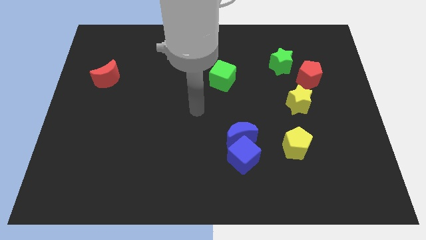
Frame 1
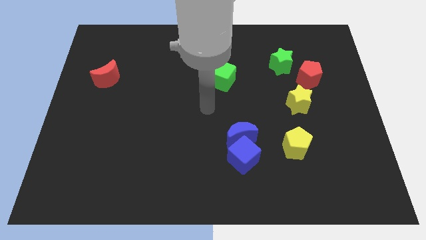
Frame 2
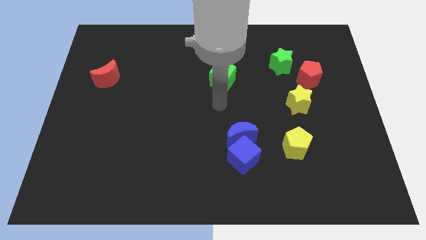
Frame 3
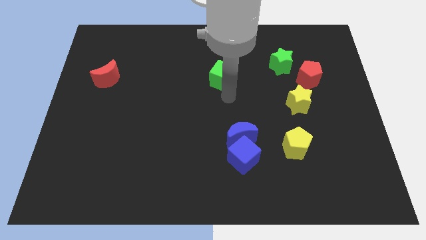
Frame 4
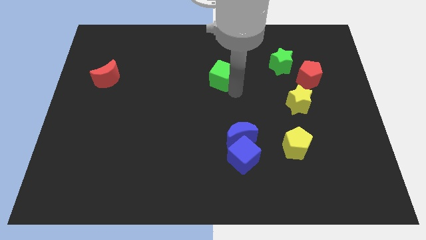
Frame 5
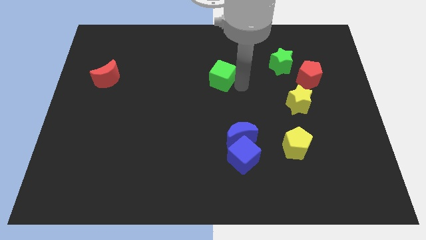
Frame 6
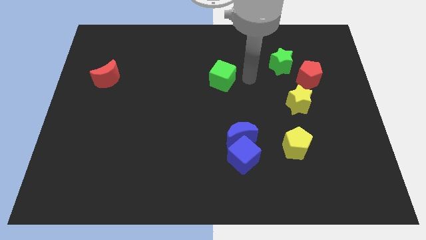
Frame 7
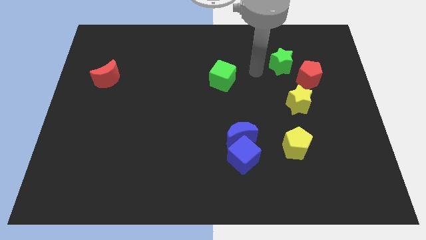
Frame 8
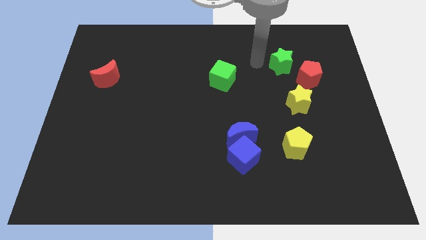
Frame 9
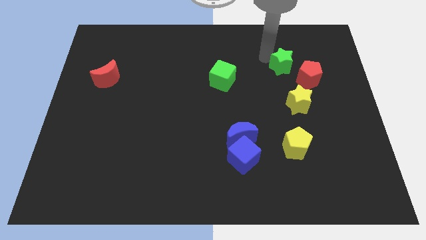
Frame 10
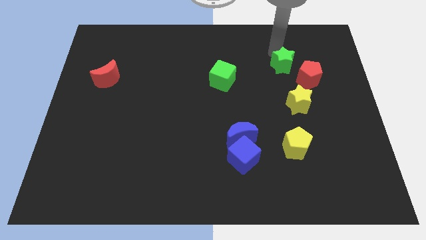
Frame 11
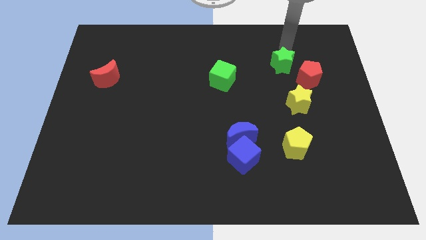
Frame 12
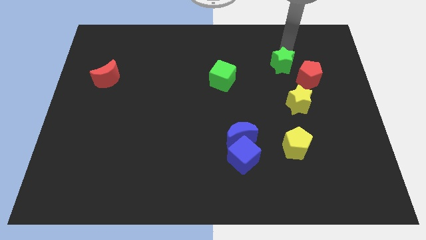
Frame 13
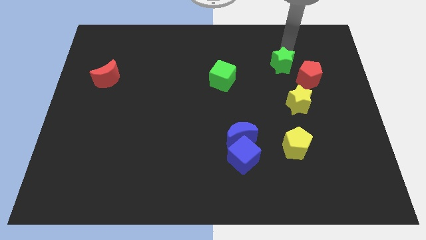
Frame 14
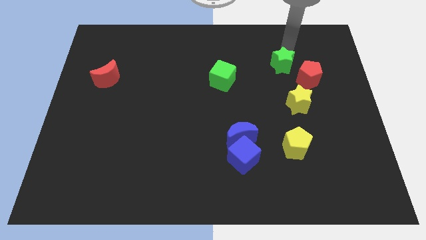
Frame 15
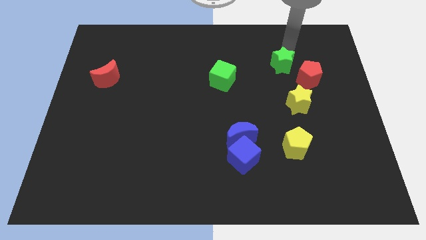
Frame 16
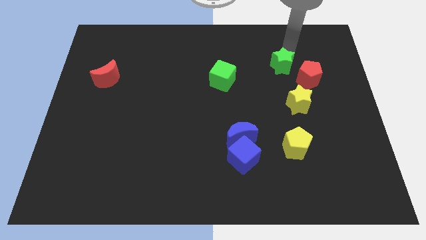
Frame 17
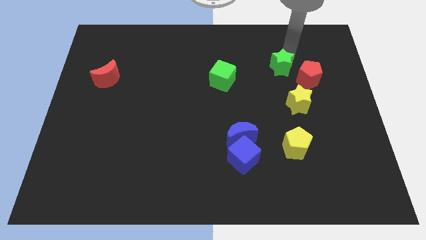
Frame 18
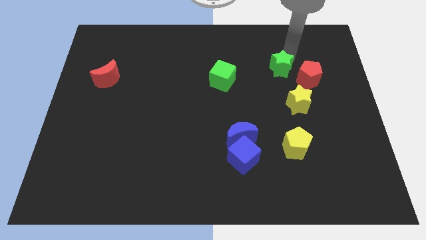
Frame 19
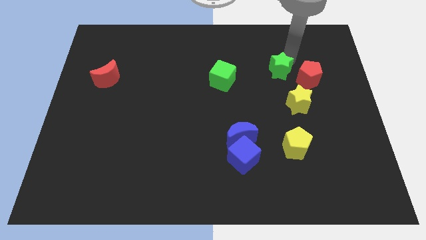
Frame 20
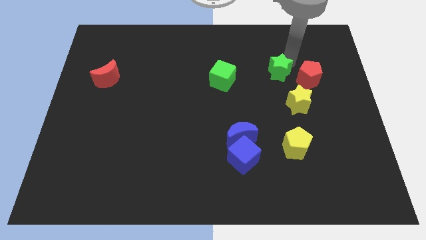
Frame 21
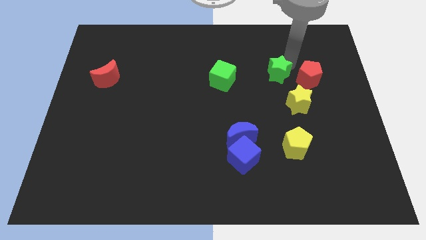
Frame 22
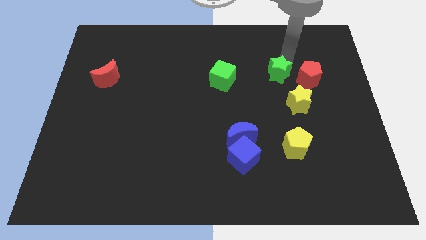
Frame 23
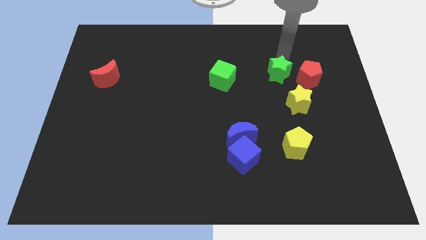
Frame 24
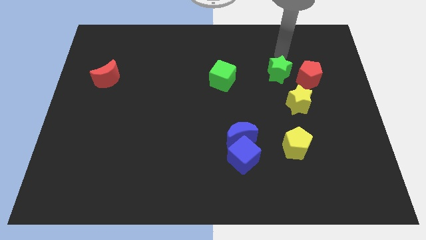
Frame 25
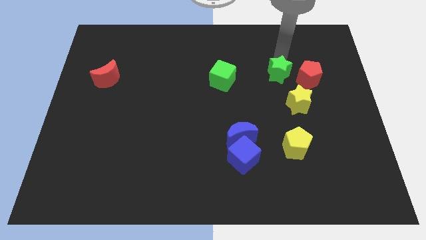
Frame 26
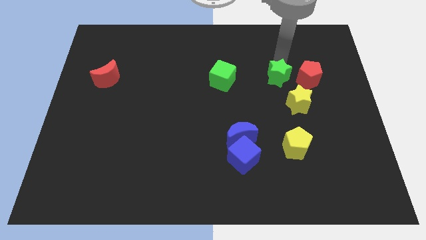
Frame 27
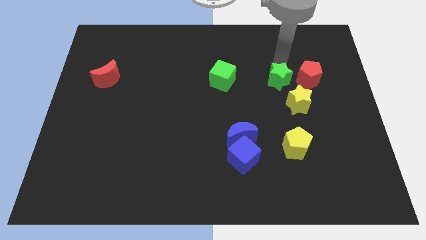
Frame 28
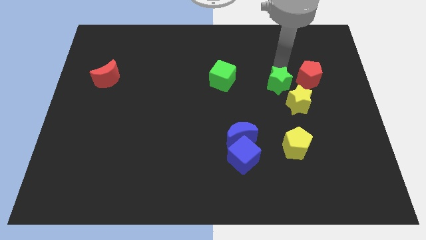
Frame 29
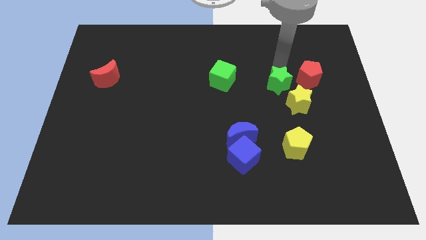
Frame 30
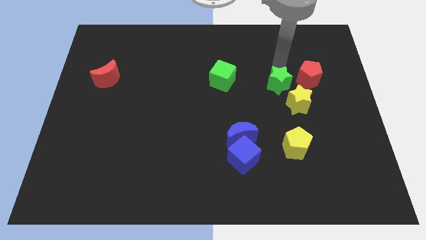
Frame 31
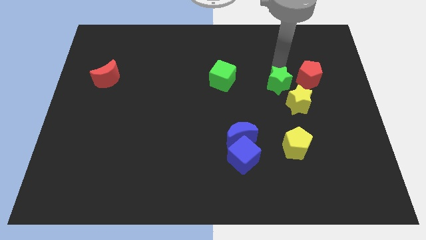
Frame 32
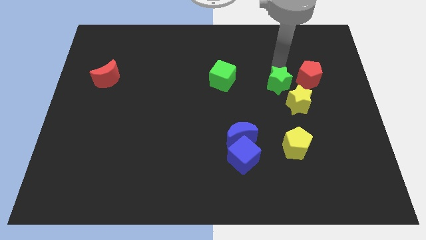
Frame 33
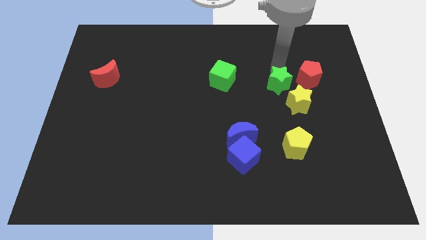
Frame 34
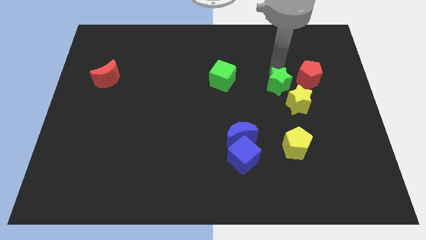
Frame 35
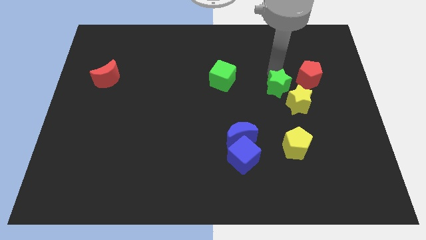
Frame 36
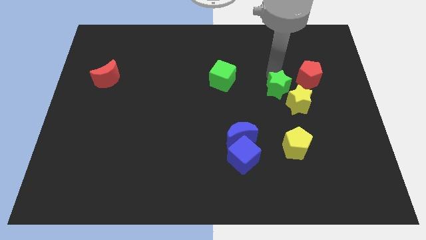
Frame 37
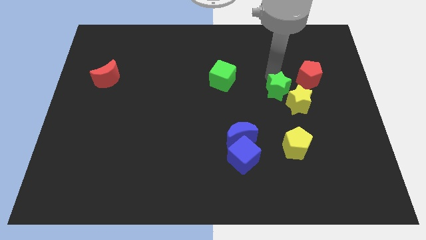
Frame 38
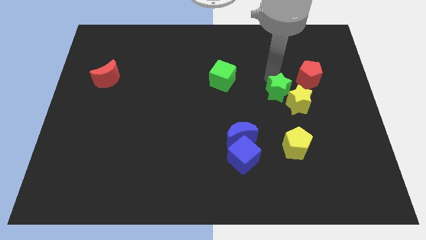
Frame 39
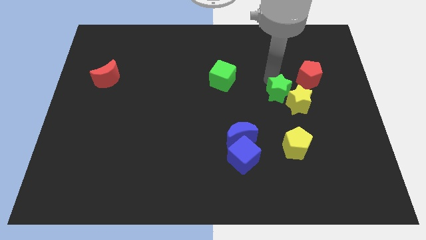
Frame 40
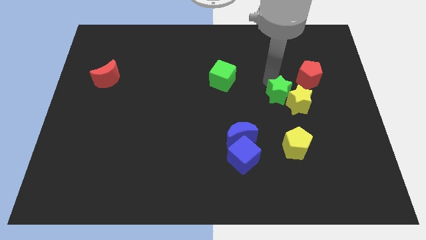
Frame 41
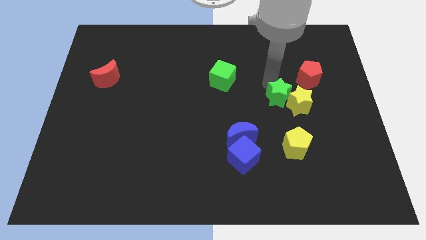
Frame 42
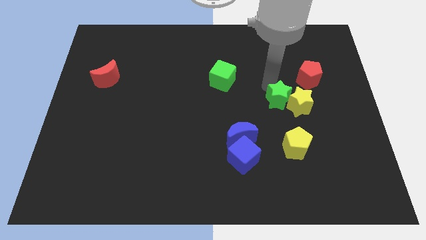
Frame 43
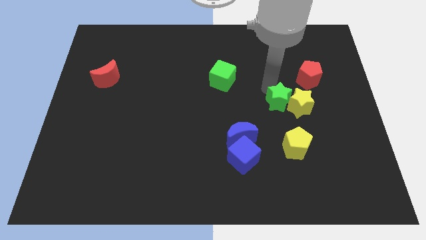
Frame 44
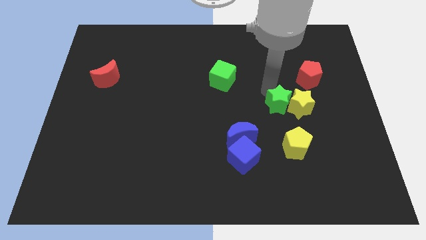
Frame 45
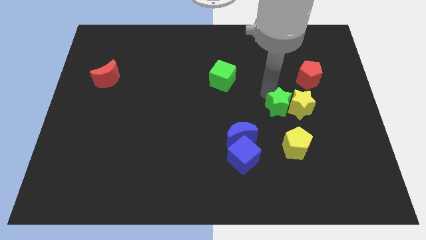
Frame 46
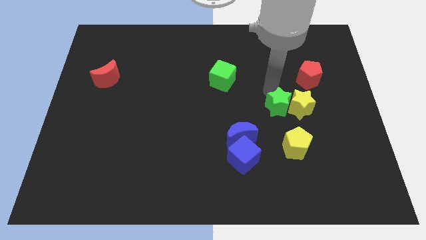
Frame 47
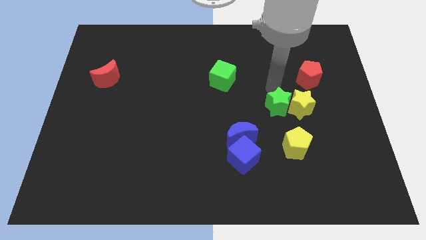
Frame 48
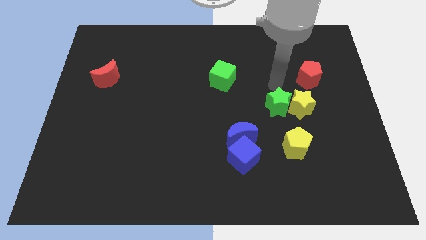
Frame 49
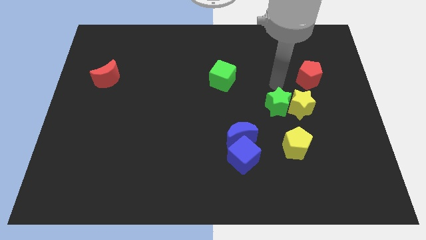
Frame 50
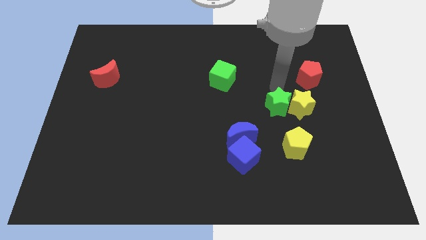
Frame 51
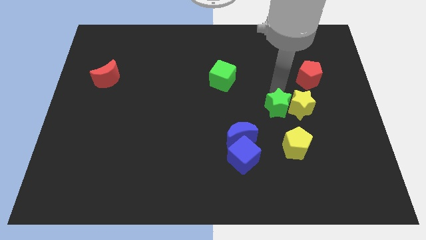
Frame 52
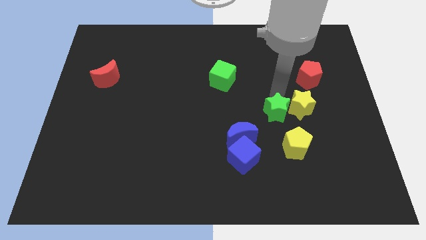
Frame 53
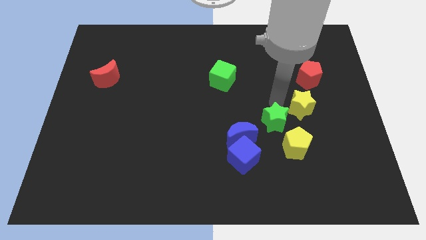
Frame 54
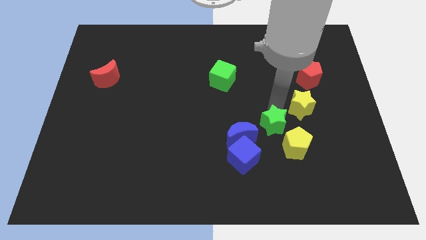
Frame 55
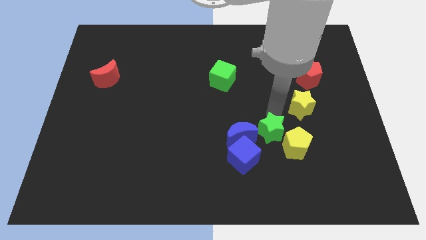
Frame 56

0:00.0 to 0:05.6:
move the green star down

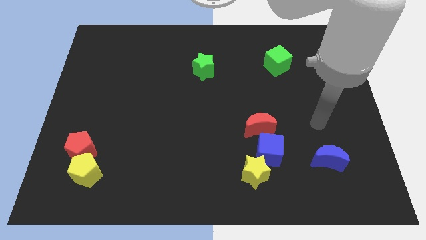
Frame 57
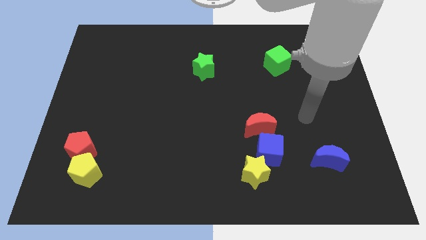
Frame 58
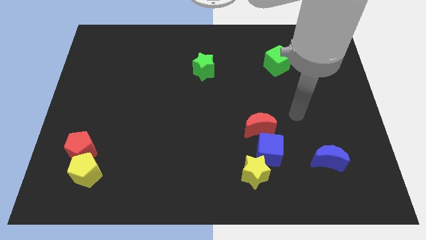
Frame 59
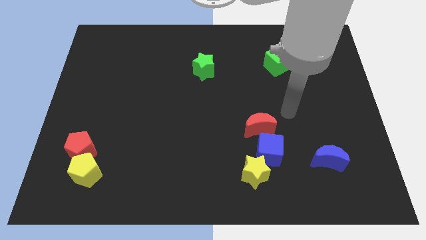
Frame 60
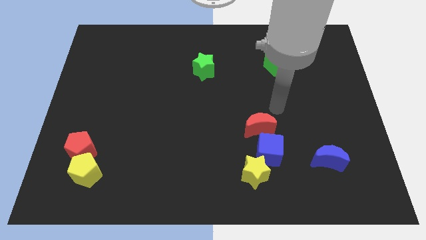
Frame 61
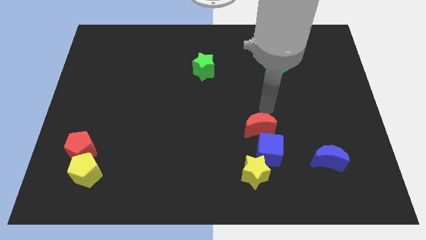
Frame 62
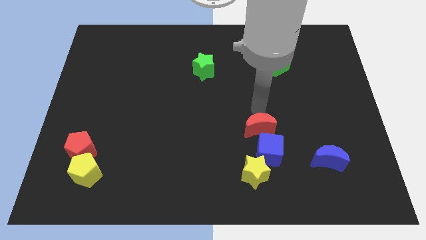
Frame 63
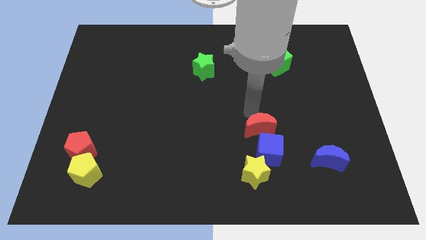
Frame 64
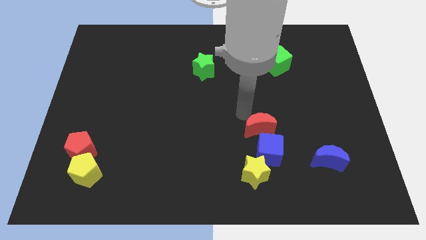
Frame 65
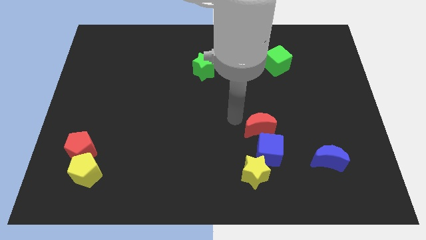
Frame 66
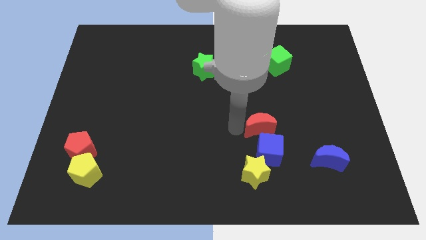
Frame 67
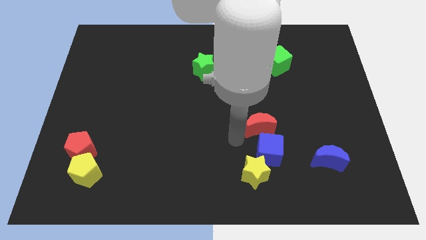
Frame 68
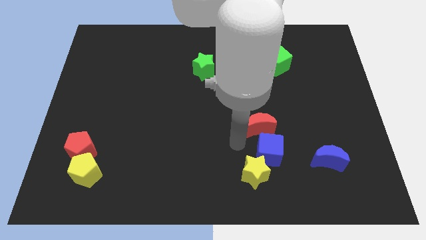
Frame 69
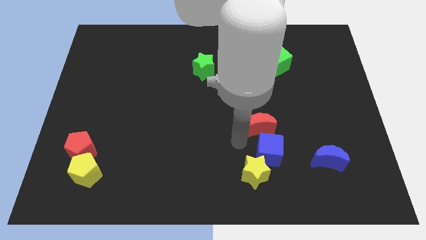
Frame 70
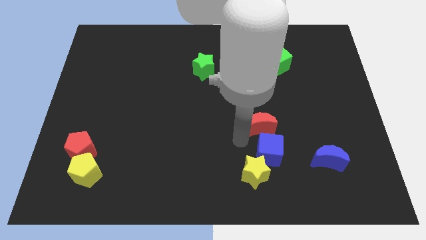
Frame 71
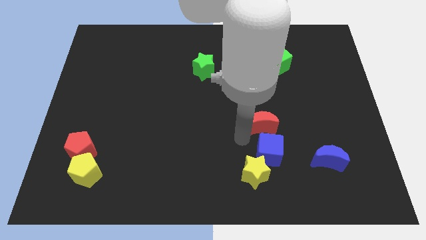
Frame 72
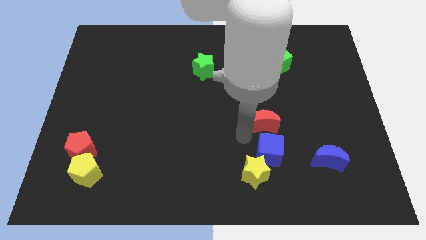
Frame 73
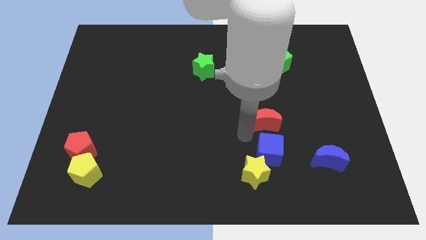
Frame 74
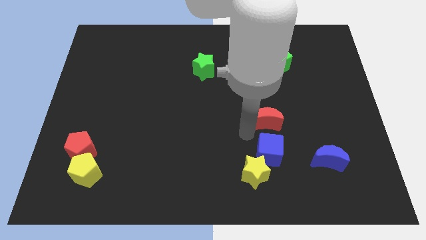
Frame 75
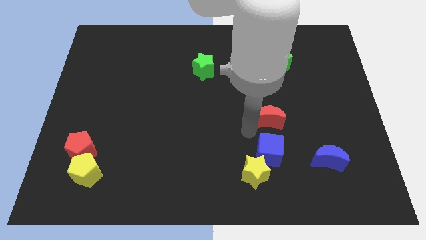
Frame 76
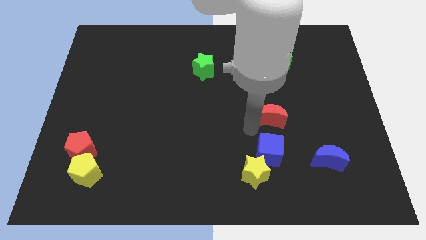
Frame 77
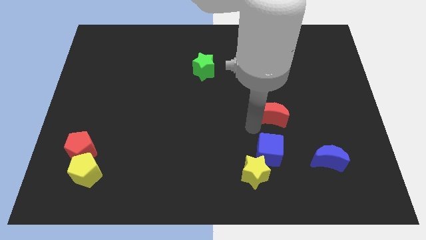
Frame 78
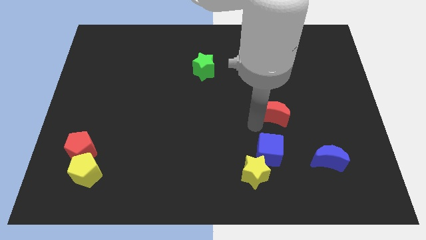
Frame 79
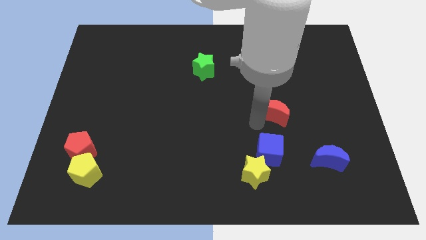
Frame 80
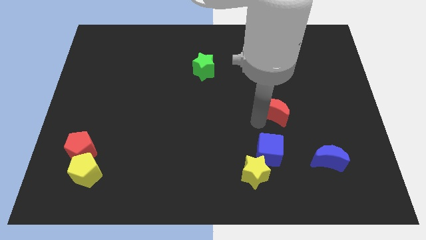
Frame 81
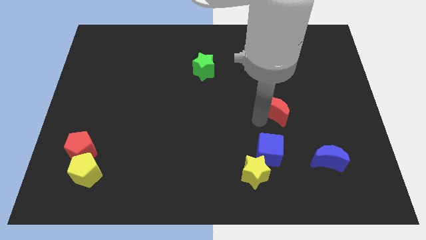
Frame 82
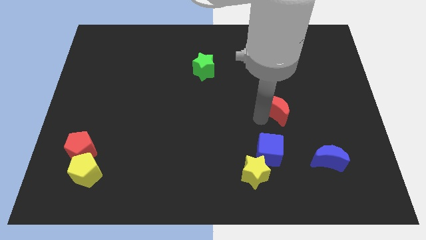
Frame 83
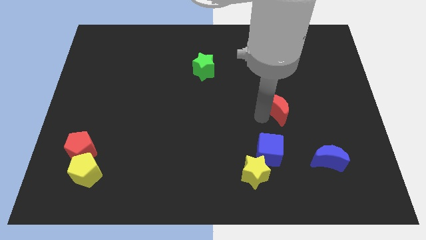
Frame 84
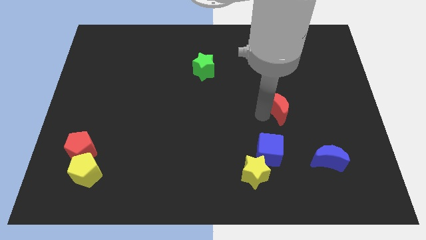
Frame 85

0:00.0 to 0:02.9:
slightly move the red moon diagonally upwards and to the right
